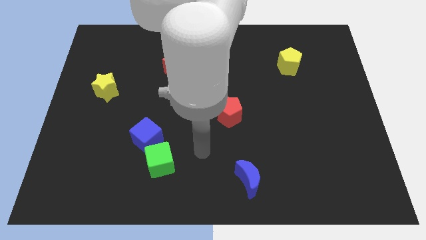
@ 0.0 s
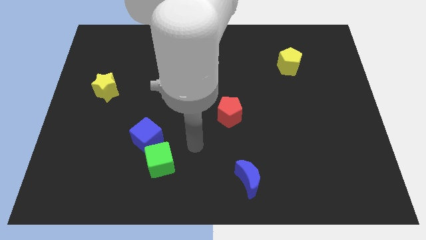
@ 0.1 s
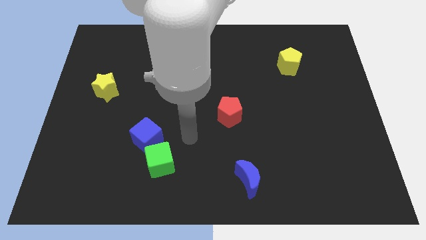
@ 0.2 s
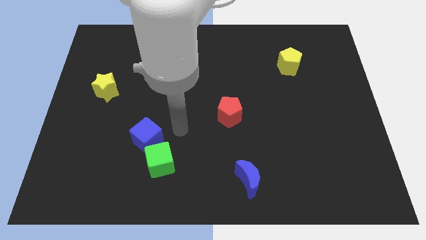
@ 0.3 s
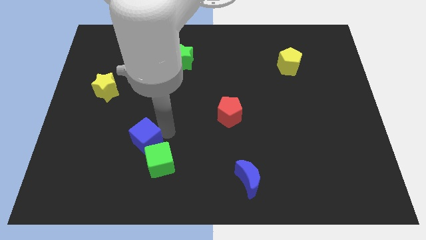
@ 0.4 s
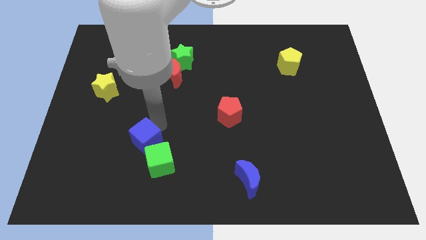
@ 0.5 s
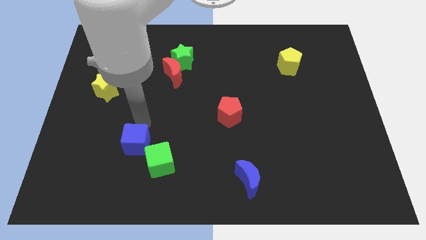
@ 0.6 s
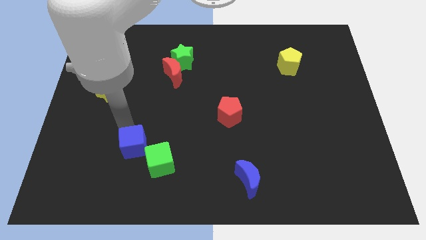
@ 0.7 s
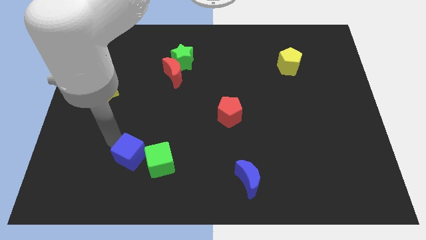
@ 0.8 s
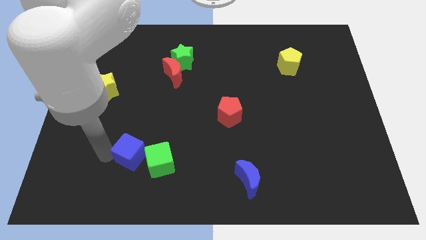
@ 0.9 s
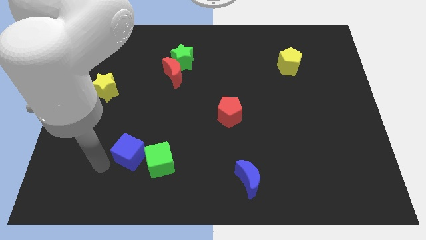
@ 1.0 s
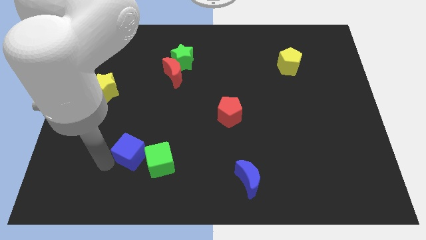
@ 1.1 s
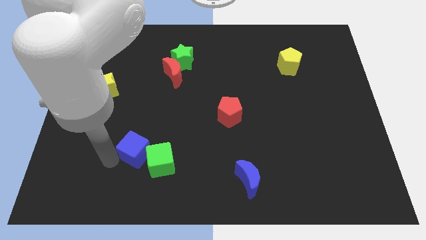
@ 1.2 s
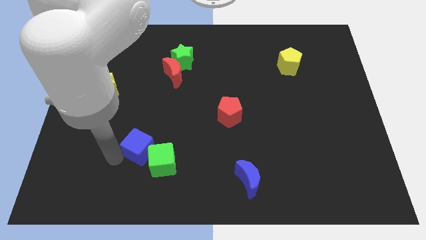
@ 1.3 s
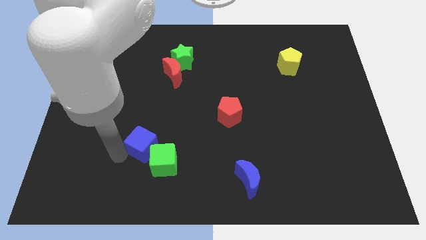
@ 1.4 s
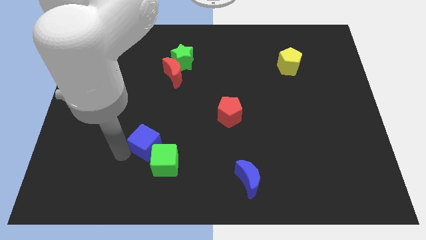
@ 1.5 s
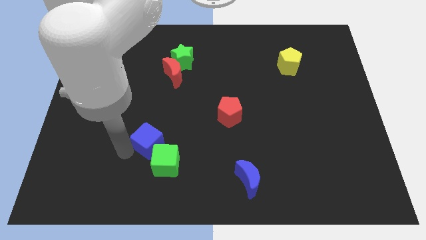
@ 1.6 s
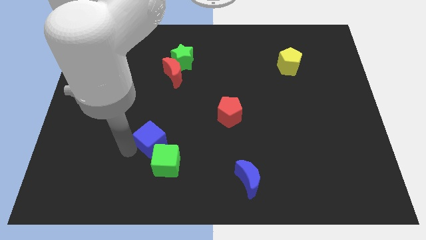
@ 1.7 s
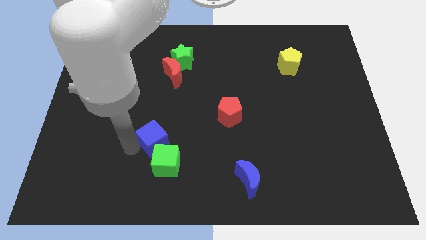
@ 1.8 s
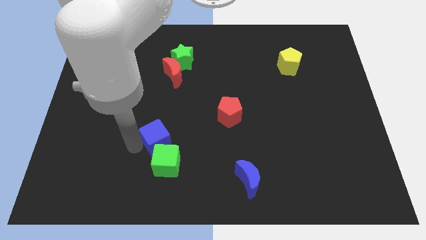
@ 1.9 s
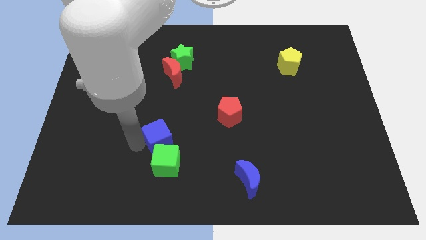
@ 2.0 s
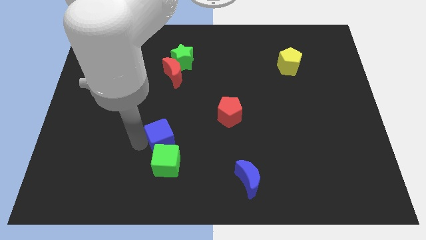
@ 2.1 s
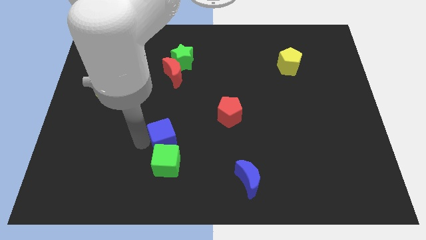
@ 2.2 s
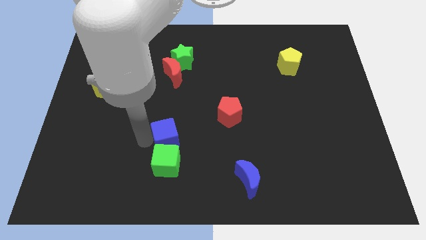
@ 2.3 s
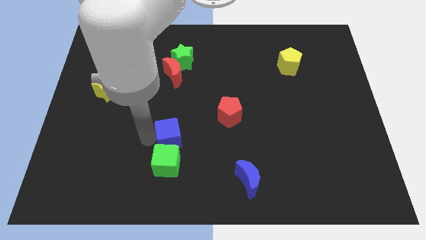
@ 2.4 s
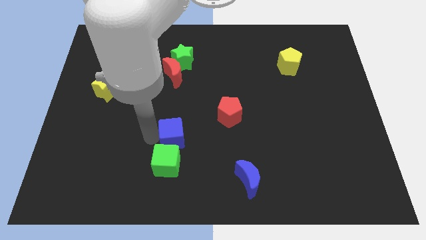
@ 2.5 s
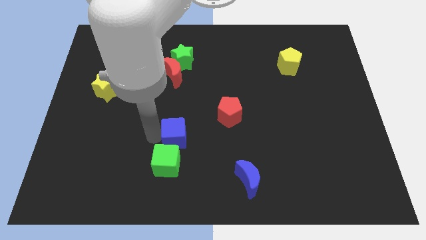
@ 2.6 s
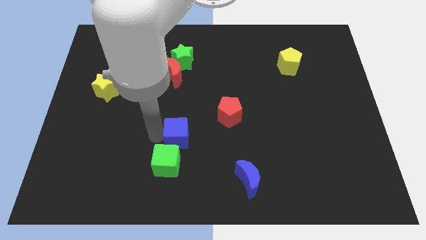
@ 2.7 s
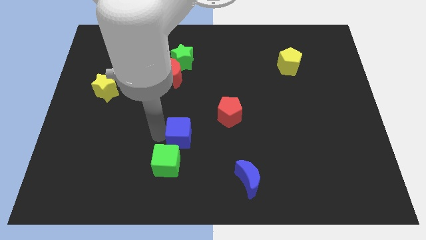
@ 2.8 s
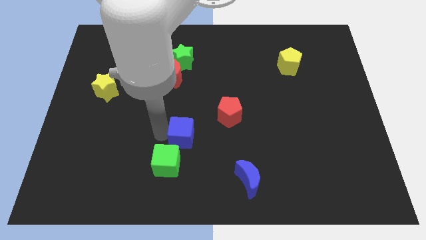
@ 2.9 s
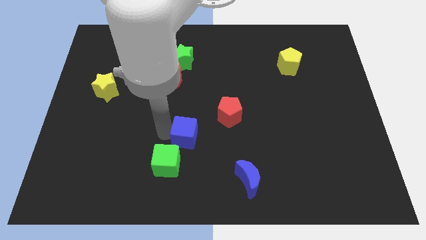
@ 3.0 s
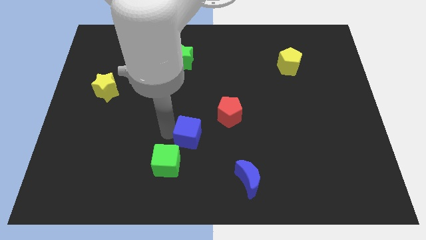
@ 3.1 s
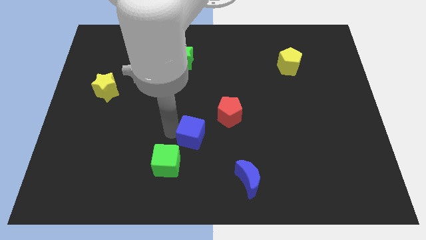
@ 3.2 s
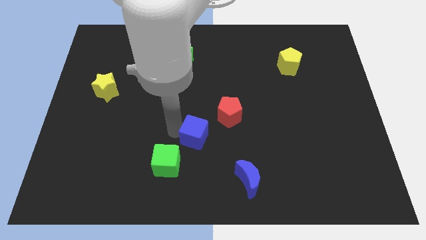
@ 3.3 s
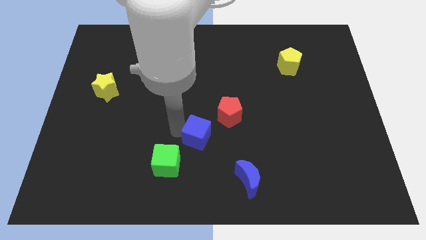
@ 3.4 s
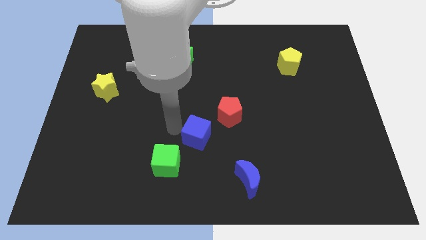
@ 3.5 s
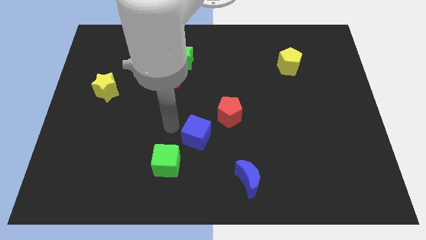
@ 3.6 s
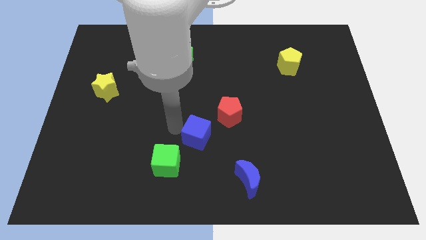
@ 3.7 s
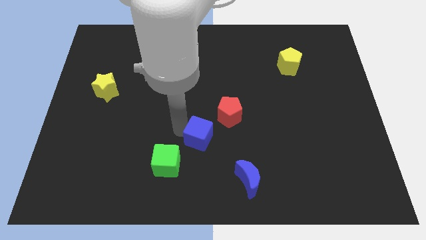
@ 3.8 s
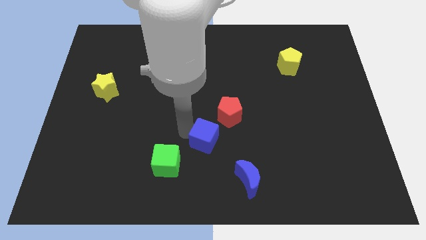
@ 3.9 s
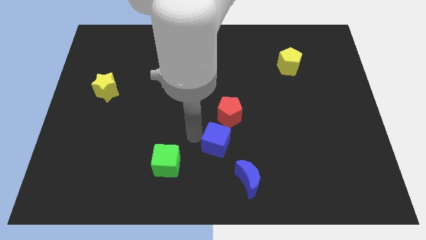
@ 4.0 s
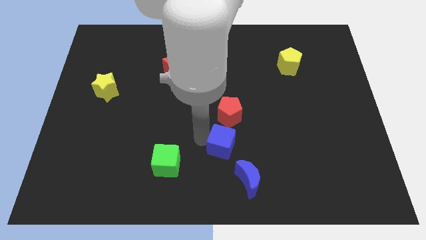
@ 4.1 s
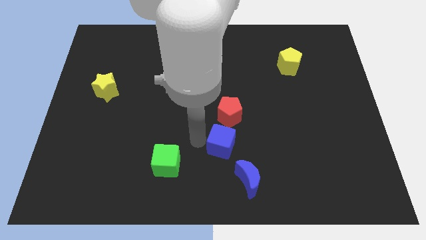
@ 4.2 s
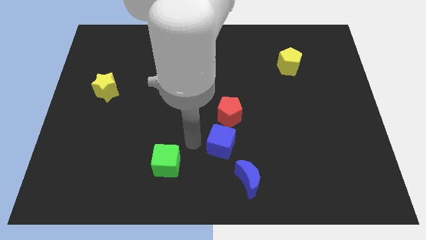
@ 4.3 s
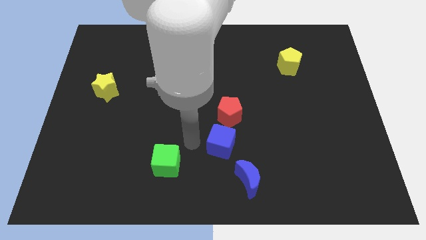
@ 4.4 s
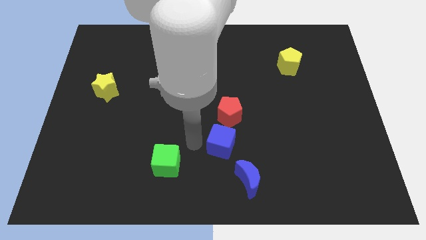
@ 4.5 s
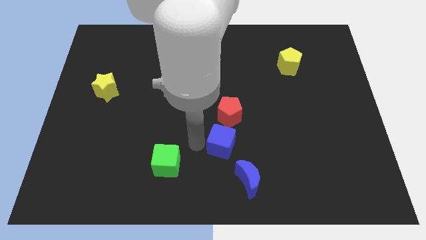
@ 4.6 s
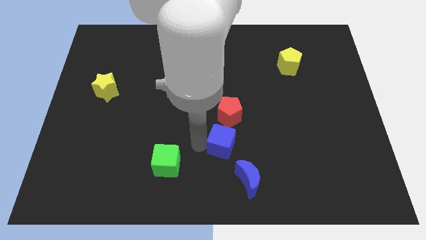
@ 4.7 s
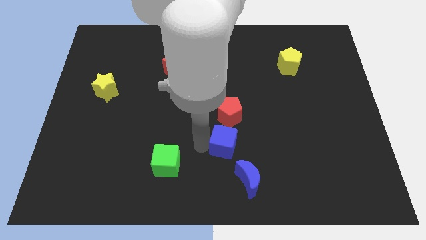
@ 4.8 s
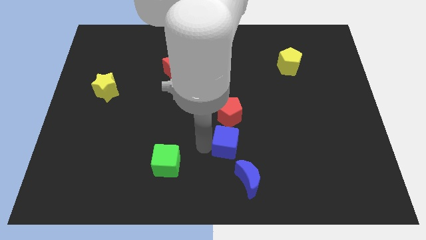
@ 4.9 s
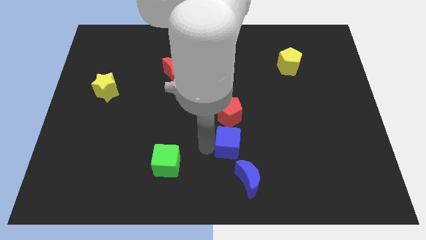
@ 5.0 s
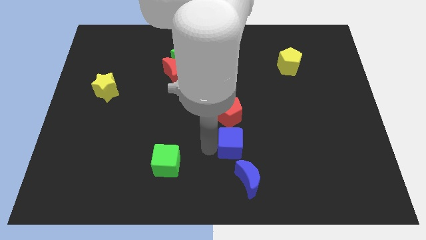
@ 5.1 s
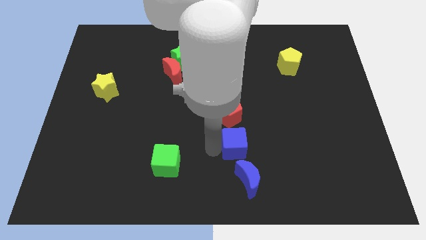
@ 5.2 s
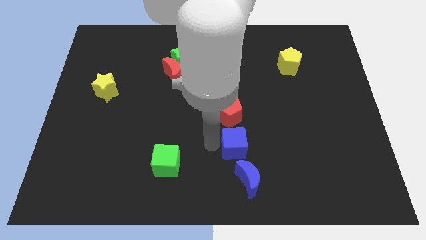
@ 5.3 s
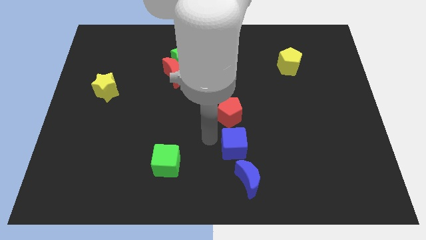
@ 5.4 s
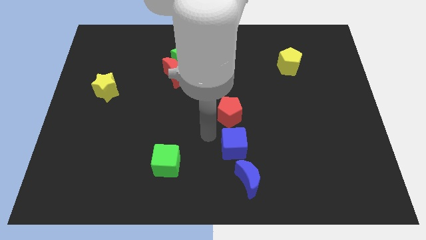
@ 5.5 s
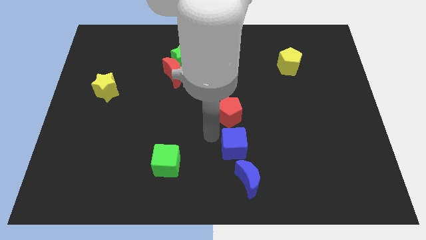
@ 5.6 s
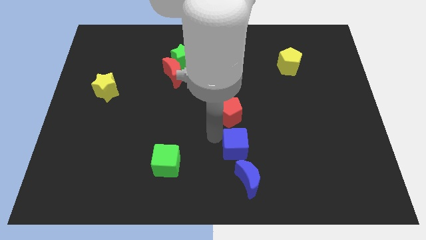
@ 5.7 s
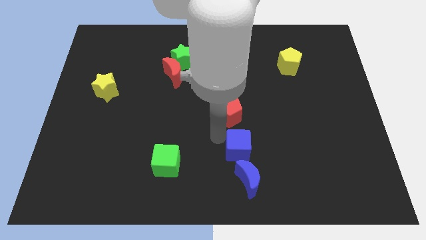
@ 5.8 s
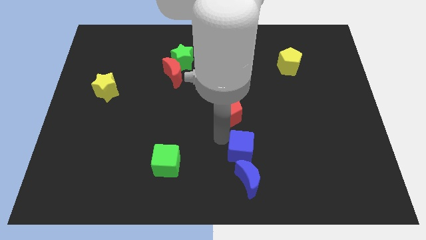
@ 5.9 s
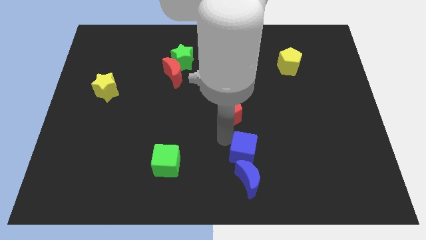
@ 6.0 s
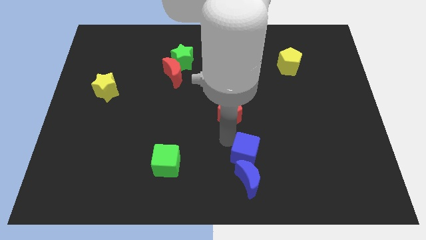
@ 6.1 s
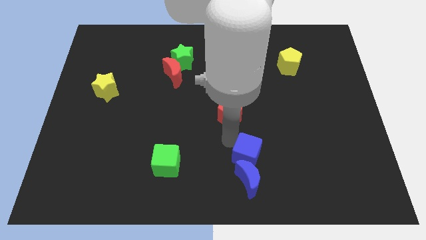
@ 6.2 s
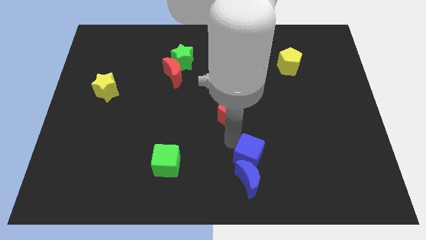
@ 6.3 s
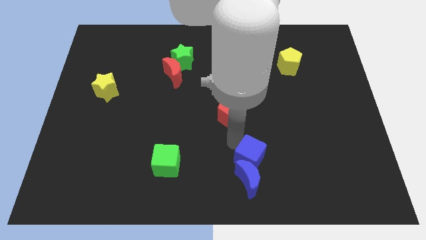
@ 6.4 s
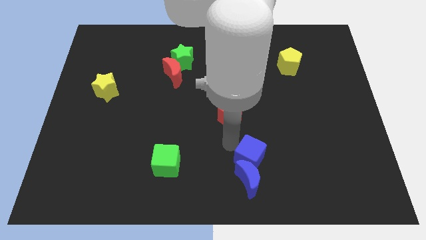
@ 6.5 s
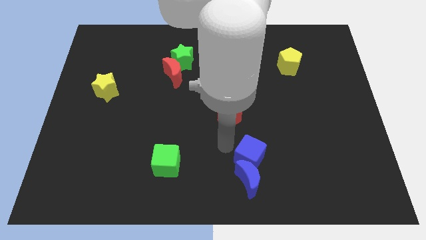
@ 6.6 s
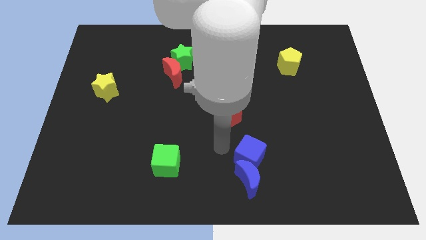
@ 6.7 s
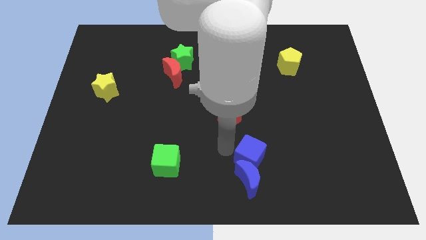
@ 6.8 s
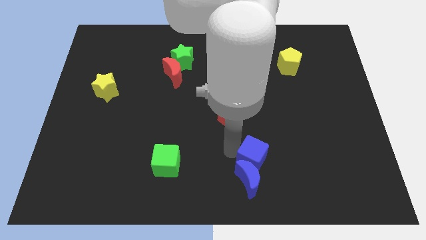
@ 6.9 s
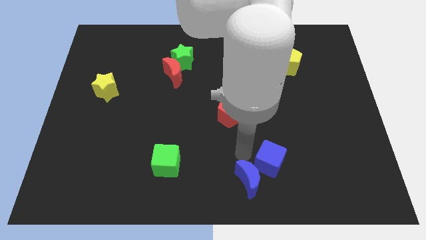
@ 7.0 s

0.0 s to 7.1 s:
slide the blue cube just right of the blue moon

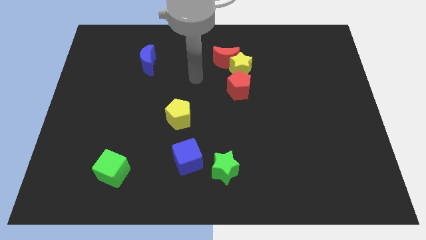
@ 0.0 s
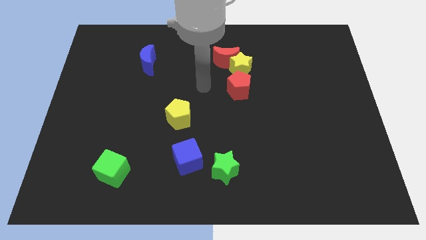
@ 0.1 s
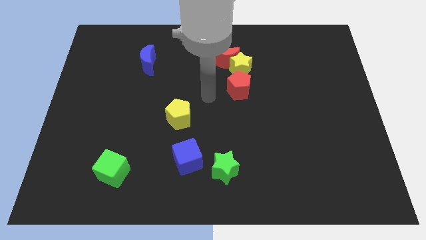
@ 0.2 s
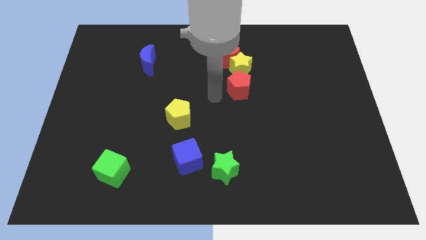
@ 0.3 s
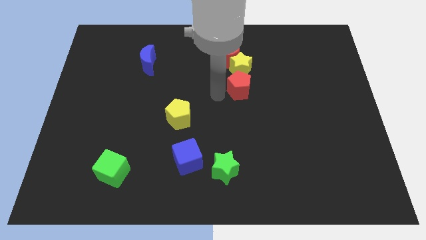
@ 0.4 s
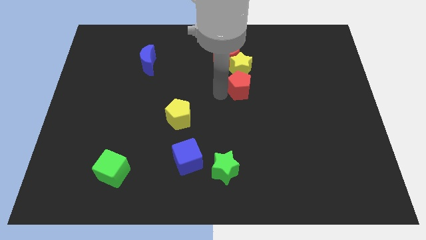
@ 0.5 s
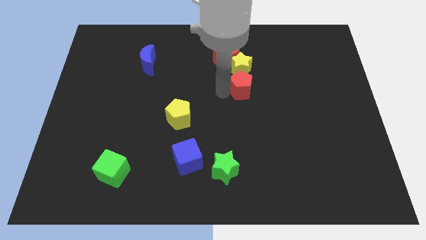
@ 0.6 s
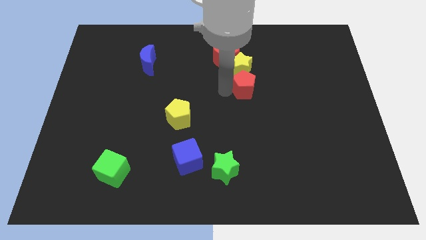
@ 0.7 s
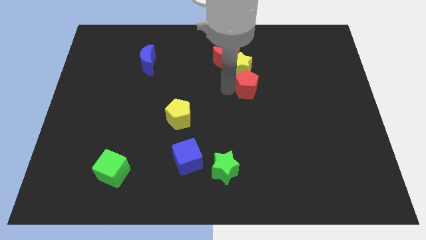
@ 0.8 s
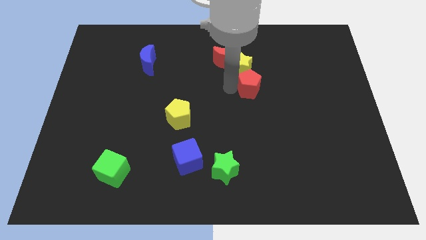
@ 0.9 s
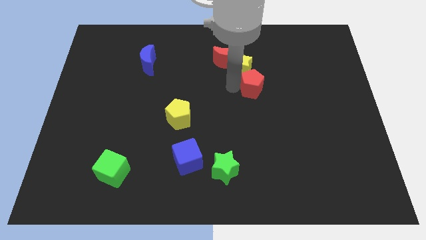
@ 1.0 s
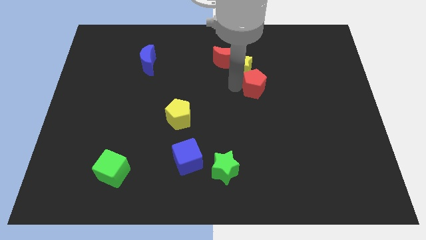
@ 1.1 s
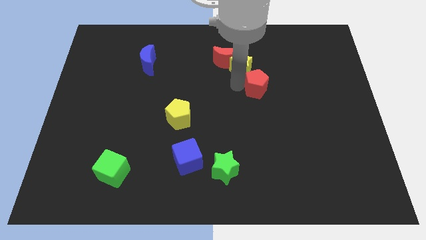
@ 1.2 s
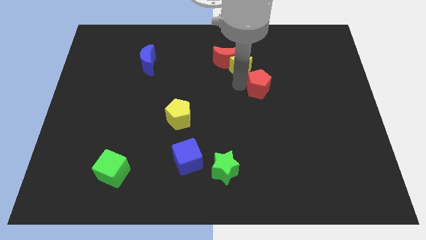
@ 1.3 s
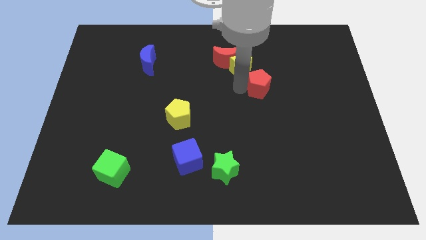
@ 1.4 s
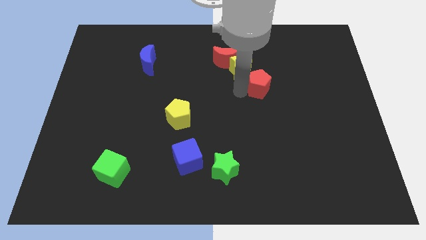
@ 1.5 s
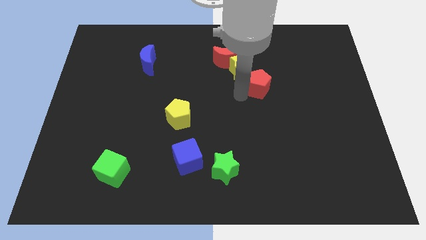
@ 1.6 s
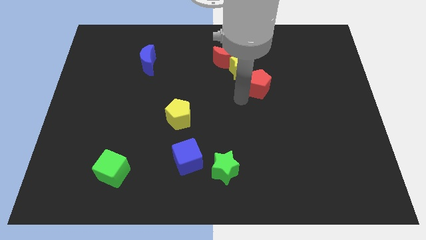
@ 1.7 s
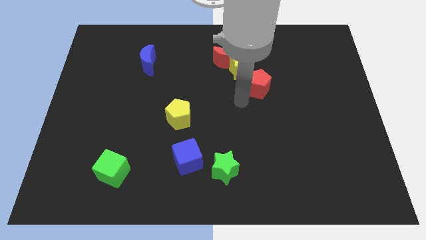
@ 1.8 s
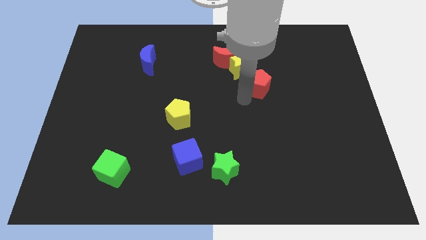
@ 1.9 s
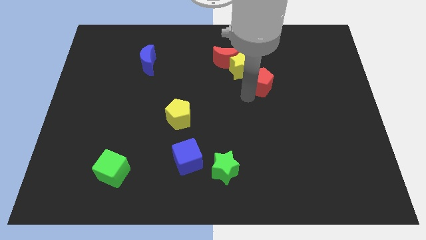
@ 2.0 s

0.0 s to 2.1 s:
push the red pentagon to the right of the yellow star
